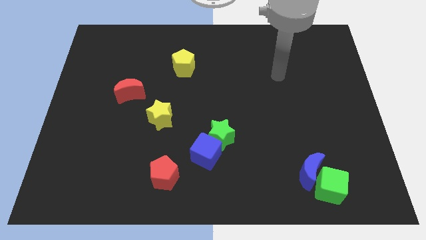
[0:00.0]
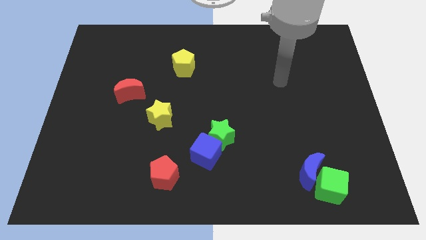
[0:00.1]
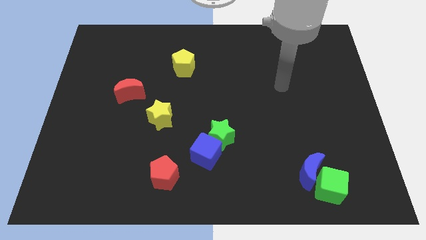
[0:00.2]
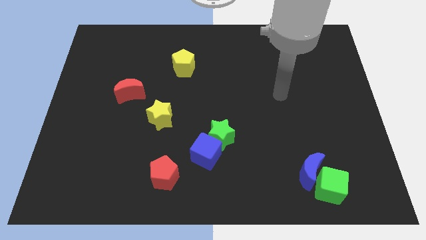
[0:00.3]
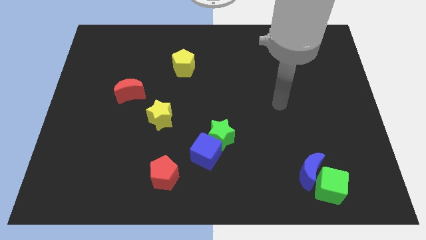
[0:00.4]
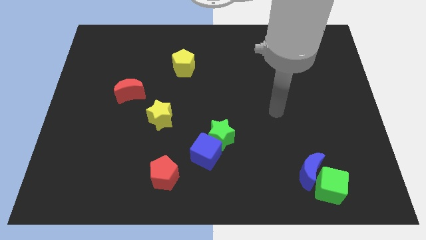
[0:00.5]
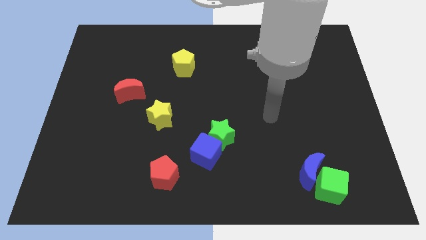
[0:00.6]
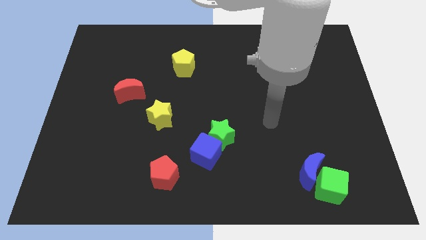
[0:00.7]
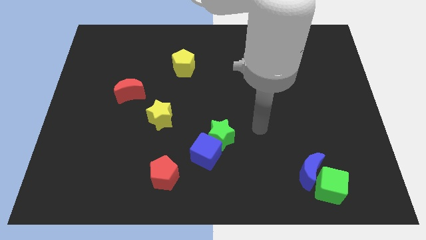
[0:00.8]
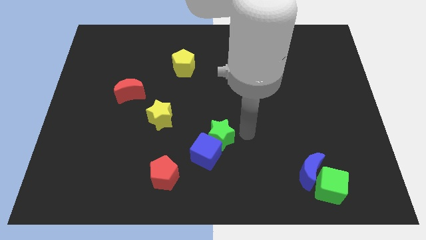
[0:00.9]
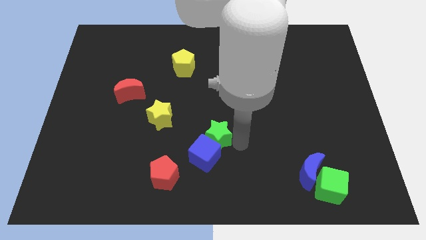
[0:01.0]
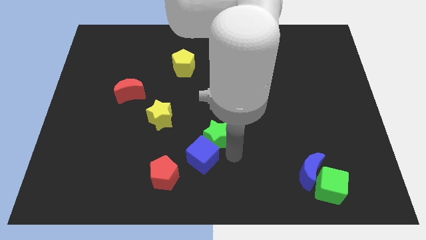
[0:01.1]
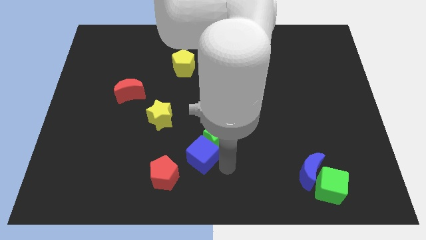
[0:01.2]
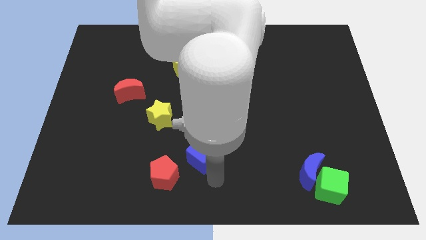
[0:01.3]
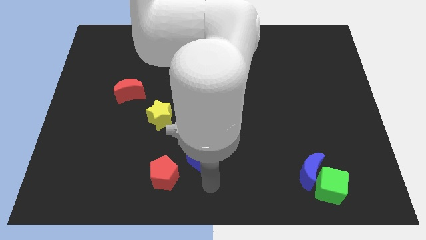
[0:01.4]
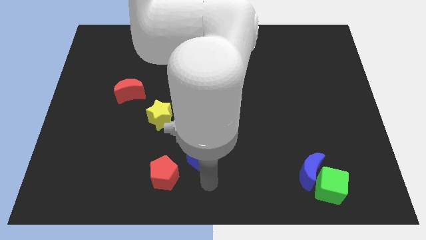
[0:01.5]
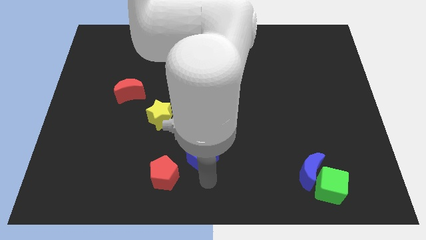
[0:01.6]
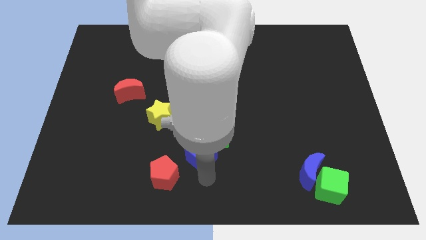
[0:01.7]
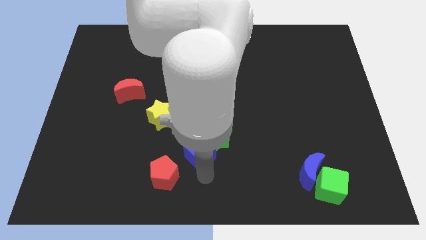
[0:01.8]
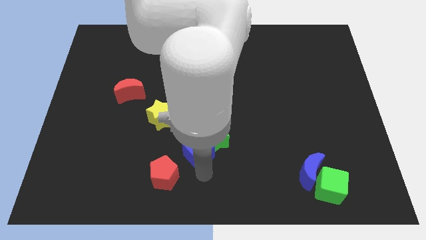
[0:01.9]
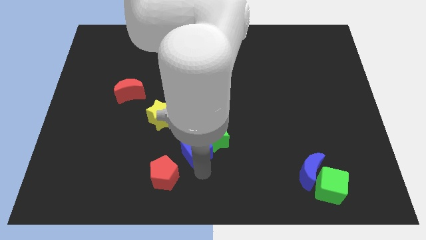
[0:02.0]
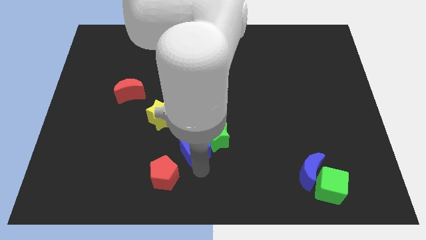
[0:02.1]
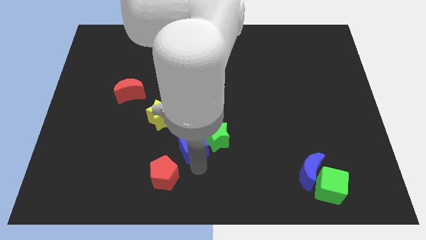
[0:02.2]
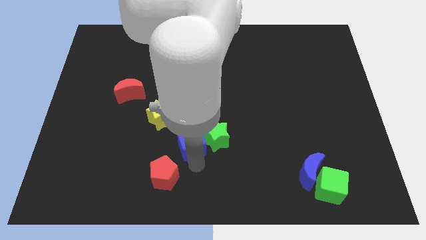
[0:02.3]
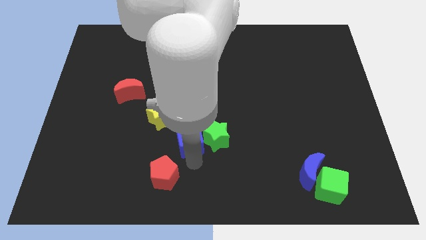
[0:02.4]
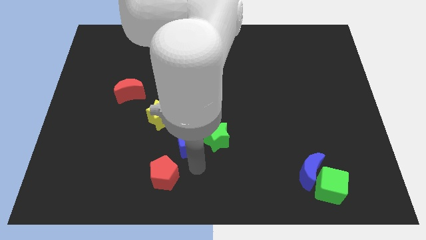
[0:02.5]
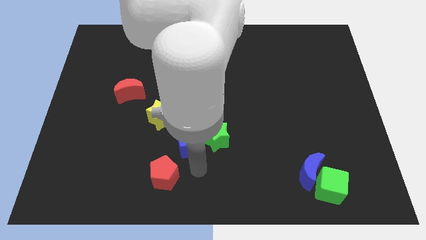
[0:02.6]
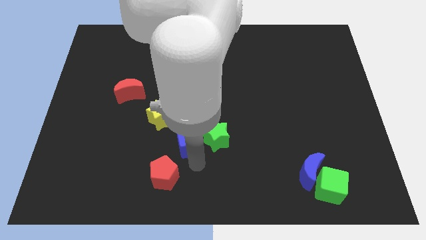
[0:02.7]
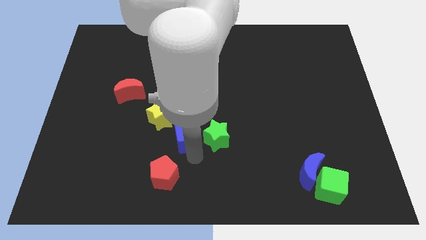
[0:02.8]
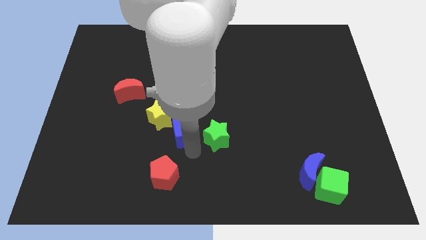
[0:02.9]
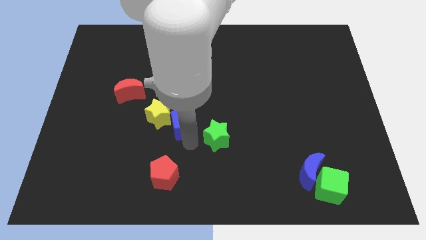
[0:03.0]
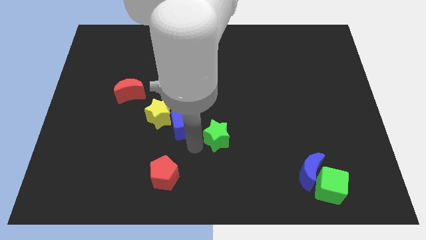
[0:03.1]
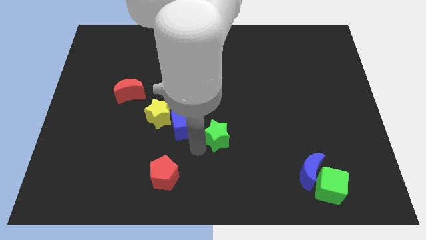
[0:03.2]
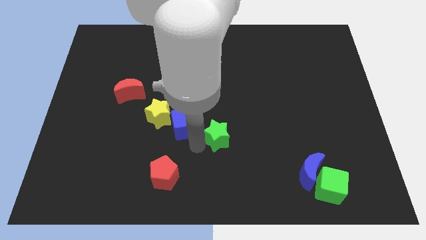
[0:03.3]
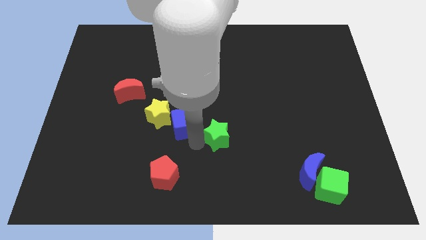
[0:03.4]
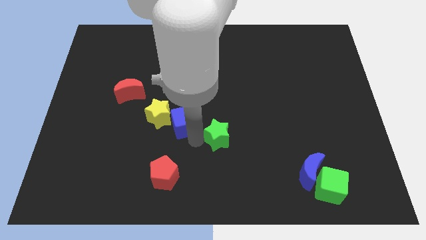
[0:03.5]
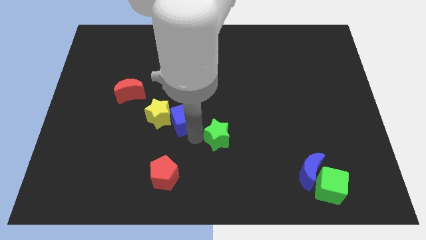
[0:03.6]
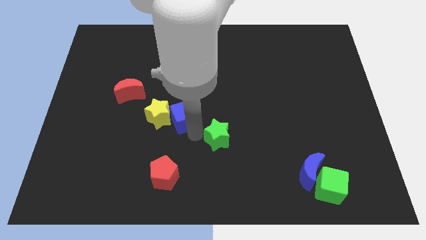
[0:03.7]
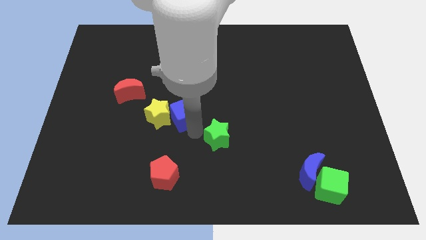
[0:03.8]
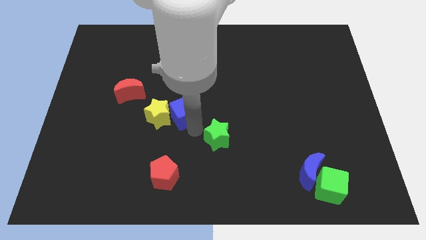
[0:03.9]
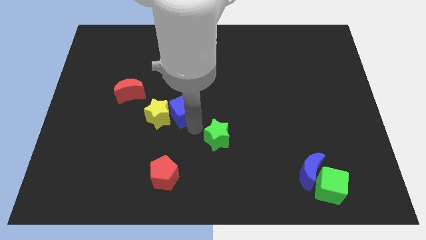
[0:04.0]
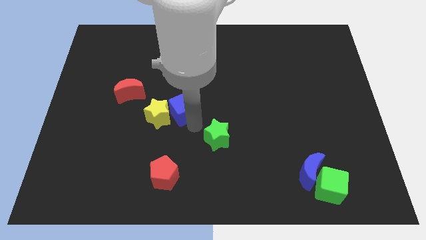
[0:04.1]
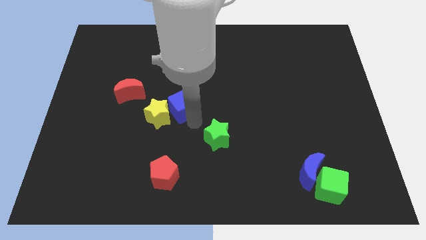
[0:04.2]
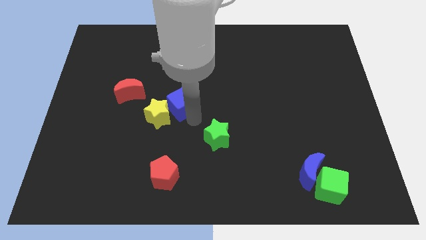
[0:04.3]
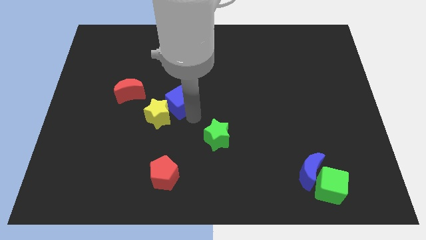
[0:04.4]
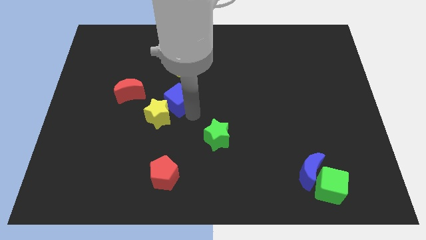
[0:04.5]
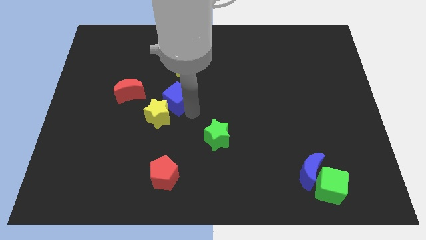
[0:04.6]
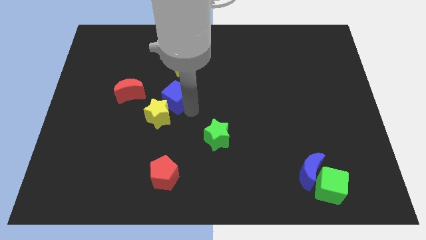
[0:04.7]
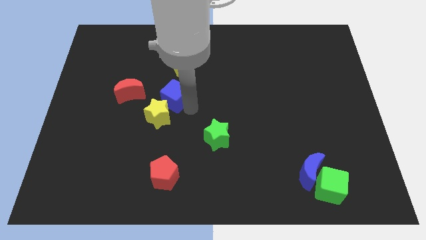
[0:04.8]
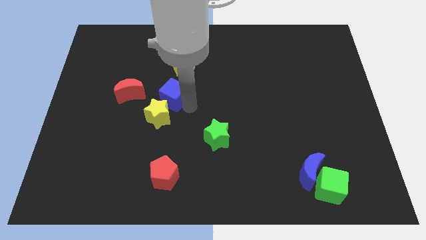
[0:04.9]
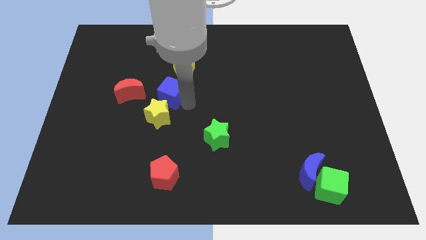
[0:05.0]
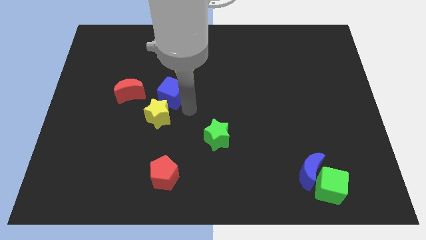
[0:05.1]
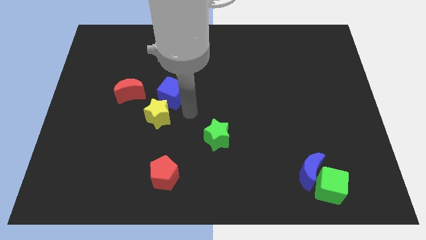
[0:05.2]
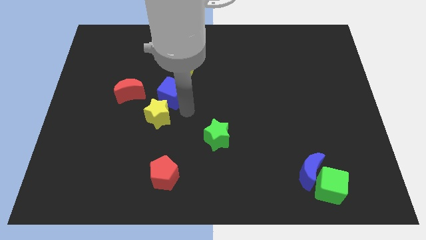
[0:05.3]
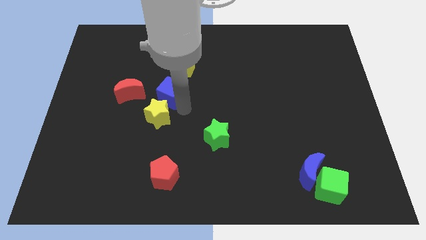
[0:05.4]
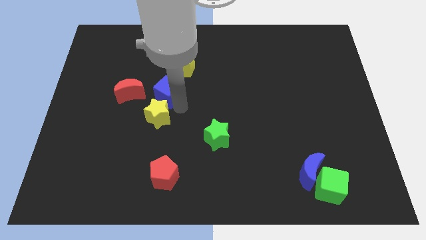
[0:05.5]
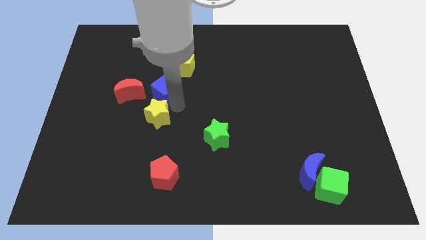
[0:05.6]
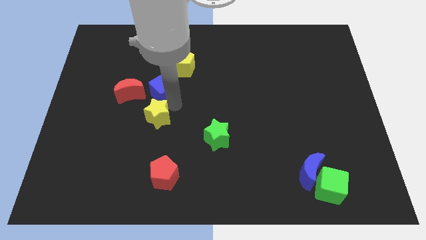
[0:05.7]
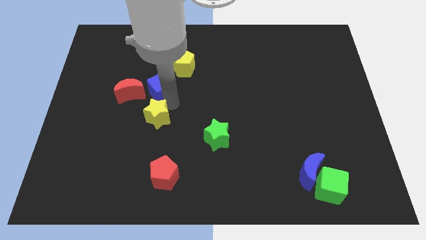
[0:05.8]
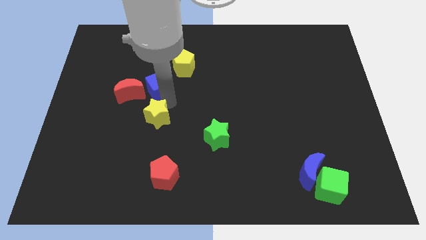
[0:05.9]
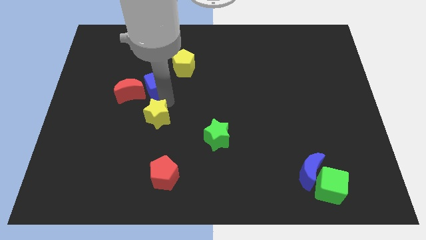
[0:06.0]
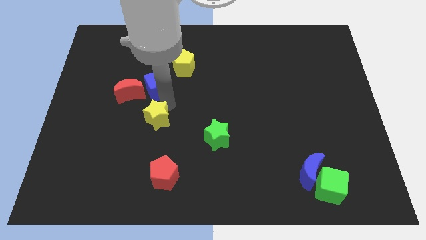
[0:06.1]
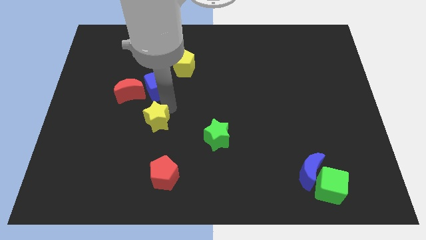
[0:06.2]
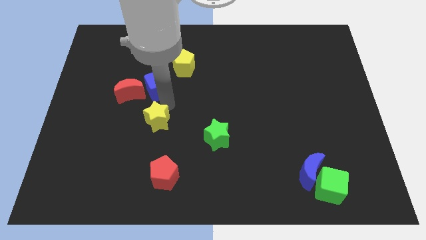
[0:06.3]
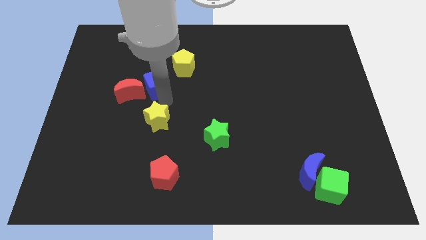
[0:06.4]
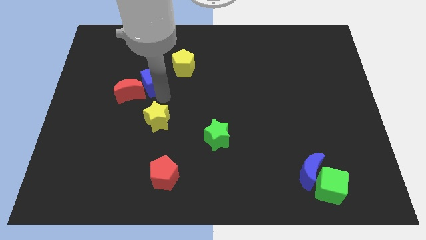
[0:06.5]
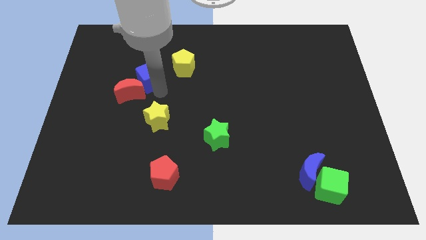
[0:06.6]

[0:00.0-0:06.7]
push the blue cube left of the yellow pentagon

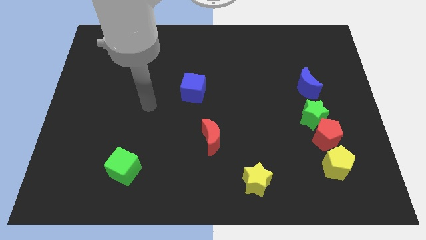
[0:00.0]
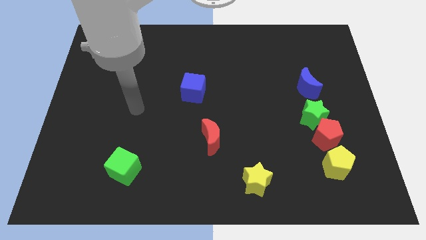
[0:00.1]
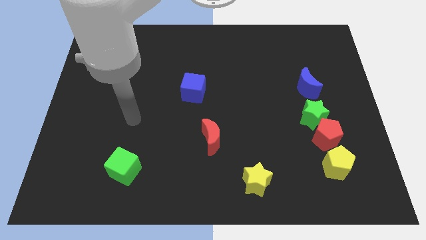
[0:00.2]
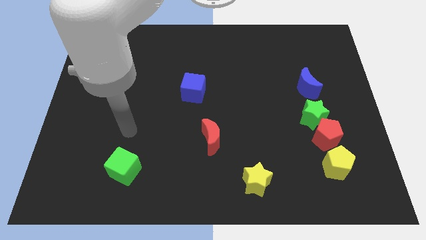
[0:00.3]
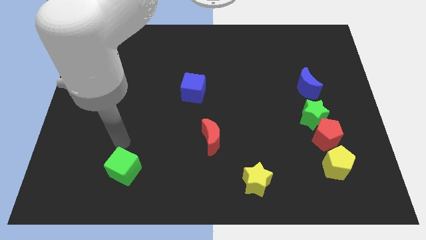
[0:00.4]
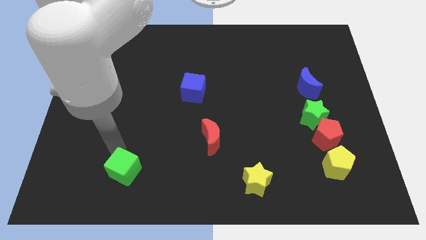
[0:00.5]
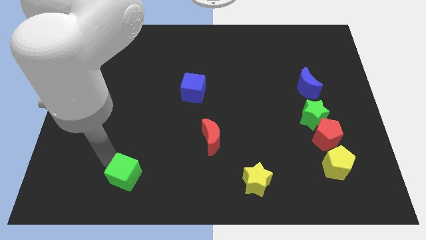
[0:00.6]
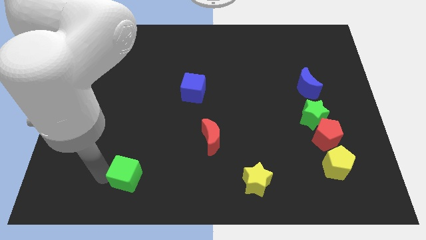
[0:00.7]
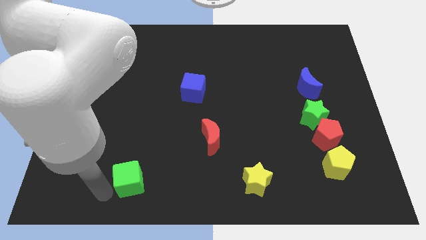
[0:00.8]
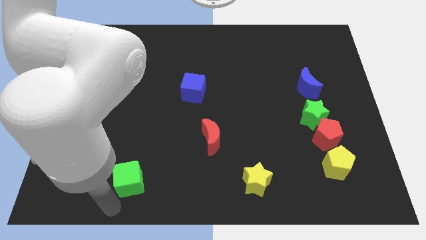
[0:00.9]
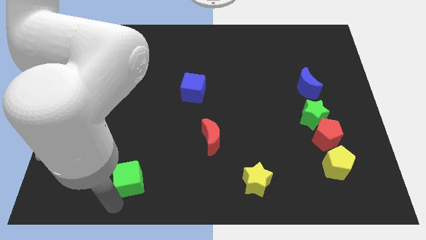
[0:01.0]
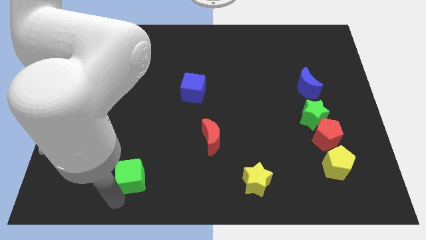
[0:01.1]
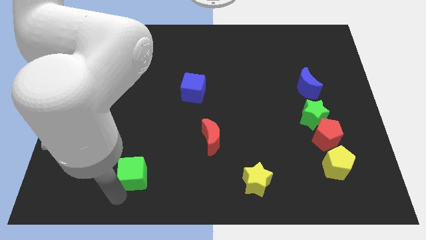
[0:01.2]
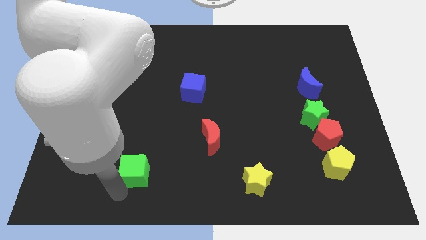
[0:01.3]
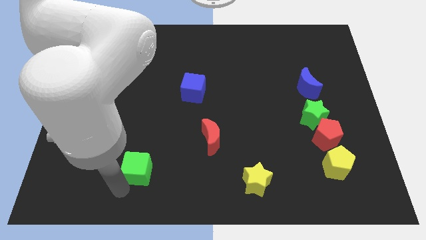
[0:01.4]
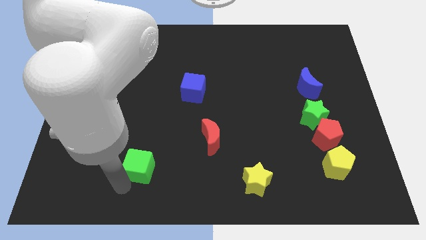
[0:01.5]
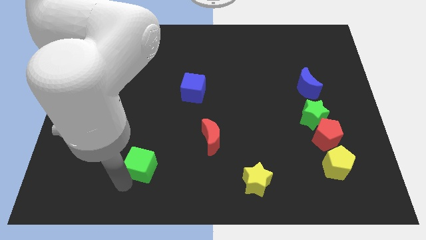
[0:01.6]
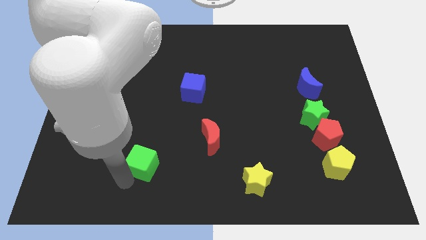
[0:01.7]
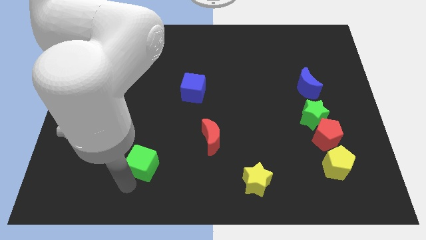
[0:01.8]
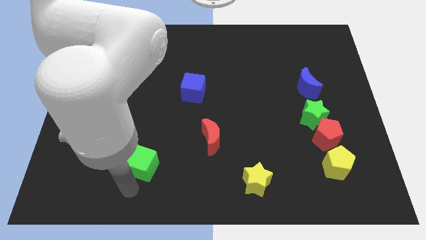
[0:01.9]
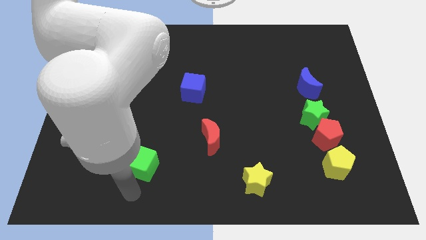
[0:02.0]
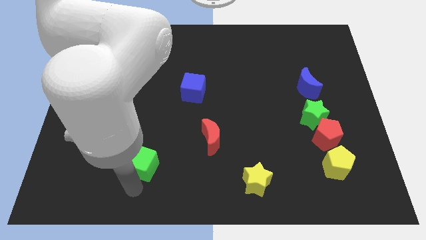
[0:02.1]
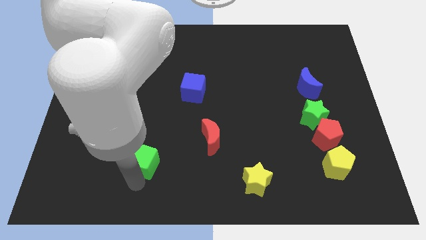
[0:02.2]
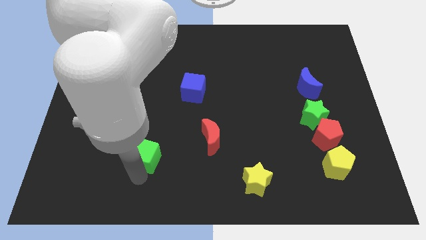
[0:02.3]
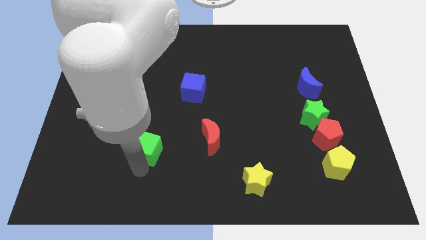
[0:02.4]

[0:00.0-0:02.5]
move the green cube to the left of the red moon
